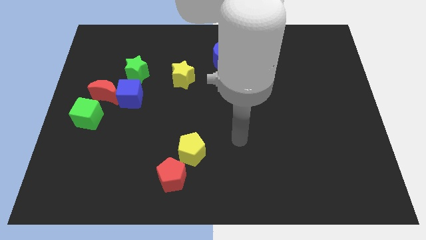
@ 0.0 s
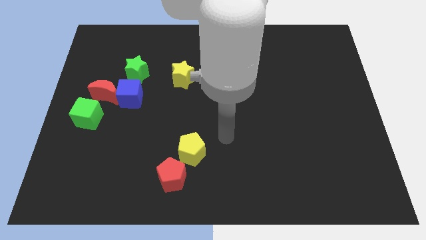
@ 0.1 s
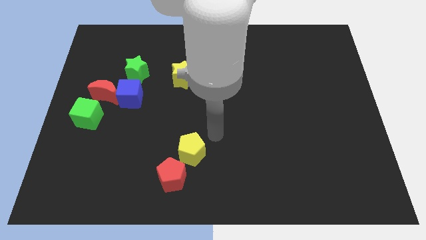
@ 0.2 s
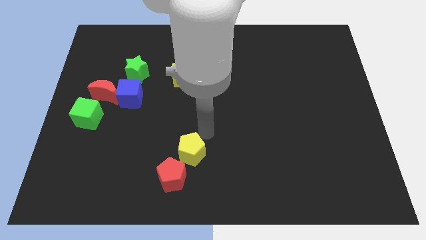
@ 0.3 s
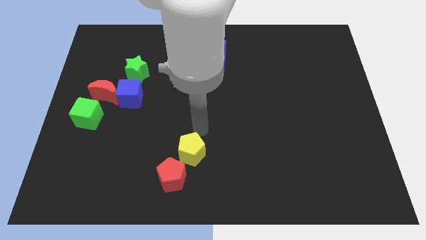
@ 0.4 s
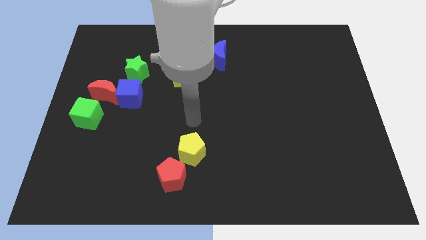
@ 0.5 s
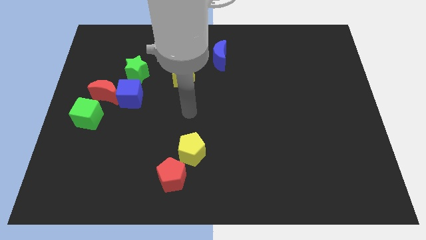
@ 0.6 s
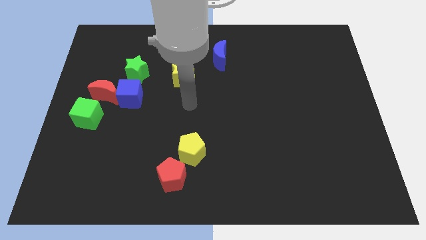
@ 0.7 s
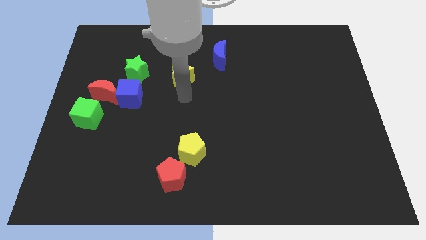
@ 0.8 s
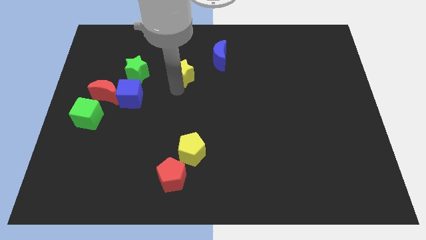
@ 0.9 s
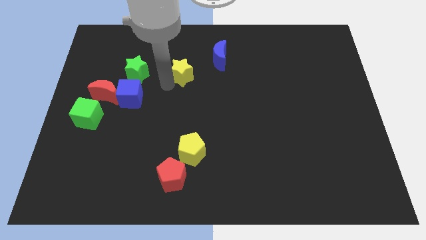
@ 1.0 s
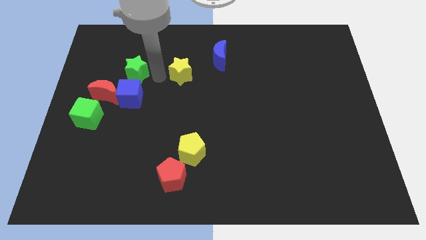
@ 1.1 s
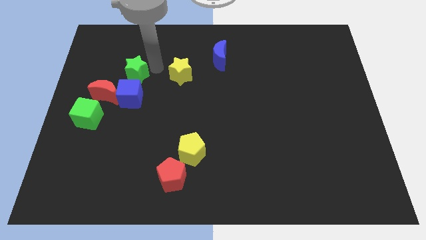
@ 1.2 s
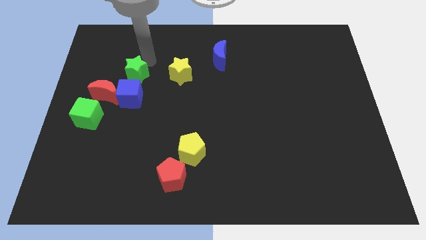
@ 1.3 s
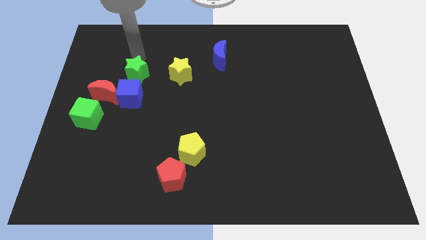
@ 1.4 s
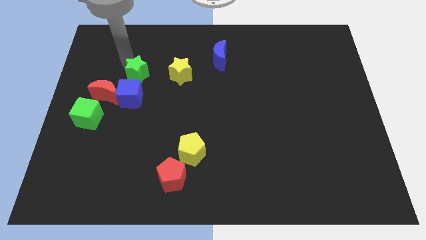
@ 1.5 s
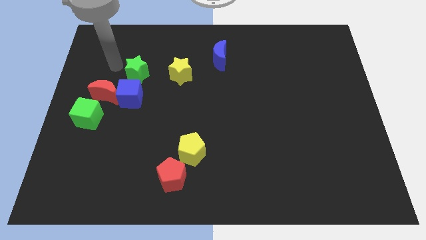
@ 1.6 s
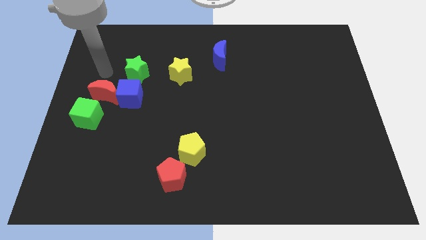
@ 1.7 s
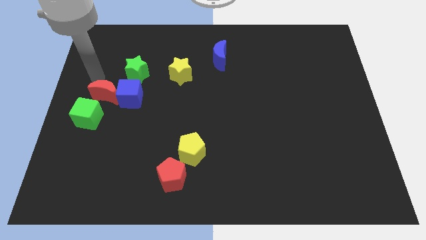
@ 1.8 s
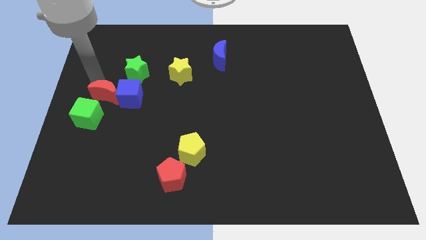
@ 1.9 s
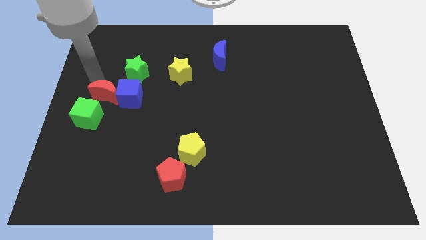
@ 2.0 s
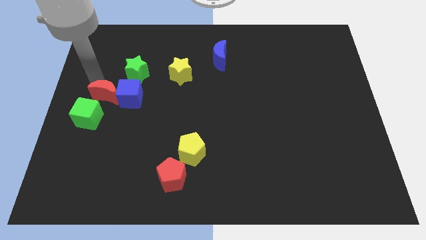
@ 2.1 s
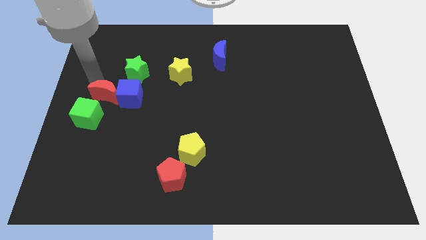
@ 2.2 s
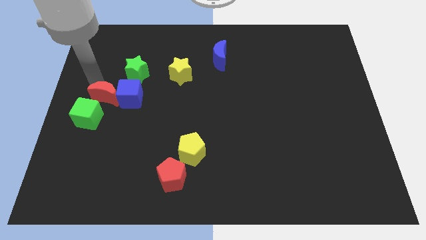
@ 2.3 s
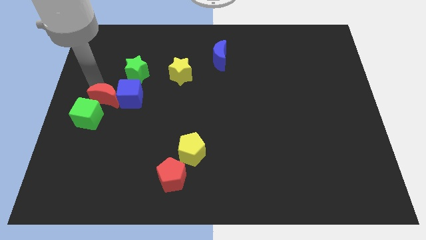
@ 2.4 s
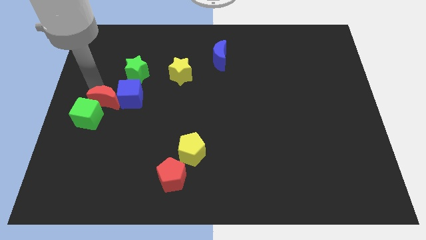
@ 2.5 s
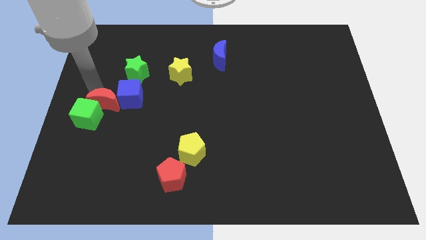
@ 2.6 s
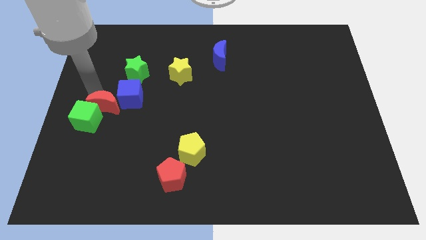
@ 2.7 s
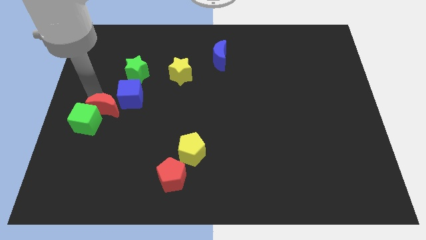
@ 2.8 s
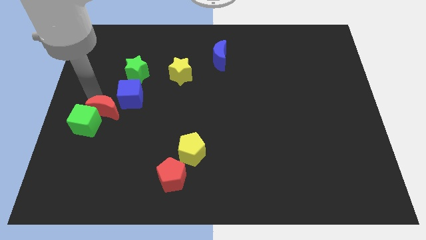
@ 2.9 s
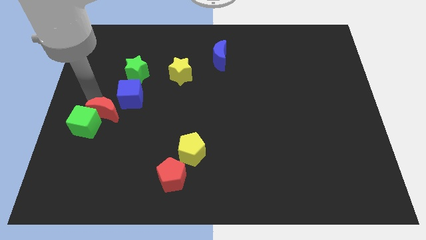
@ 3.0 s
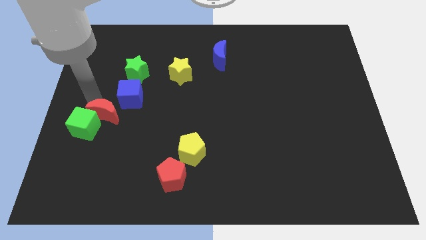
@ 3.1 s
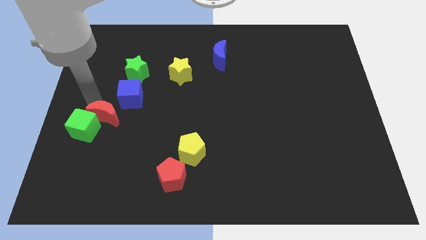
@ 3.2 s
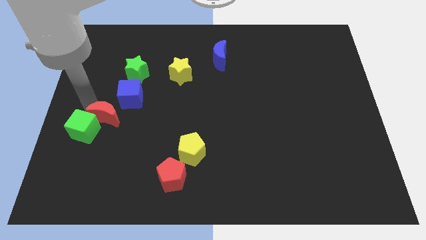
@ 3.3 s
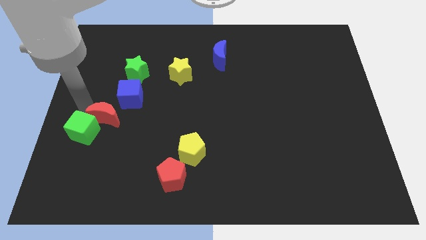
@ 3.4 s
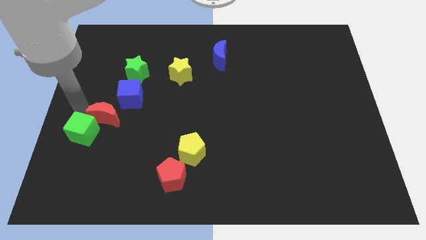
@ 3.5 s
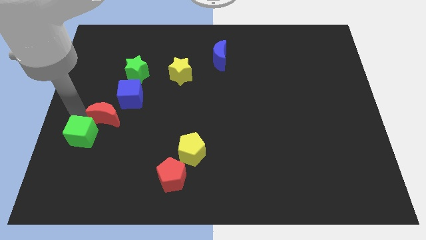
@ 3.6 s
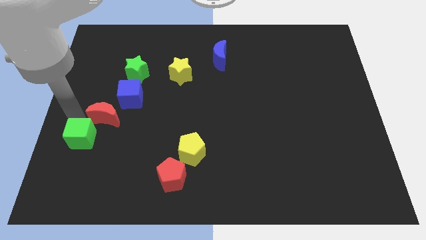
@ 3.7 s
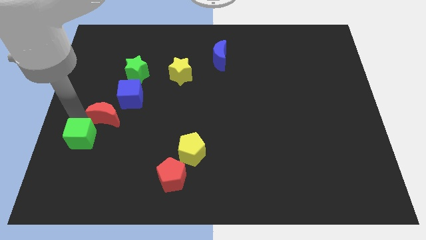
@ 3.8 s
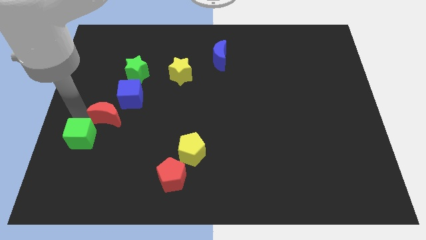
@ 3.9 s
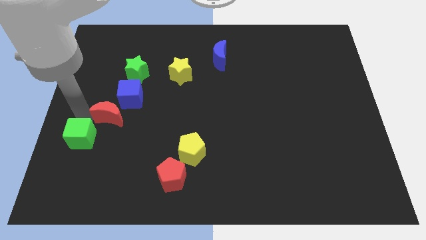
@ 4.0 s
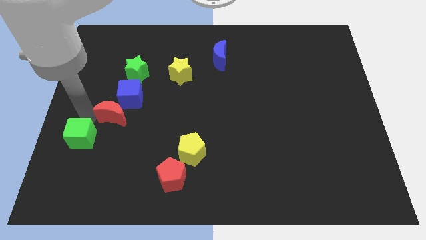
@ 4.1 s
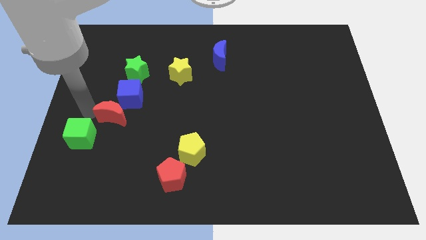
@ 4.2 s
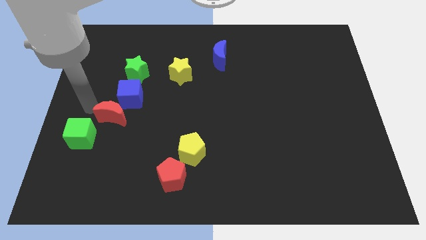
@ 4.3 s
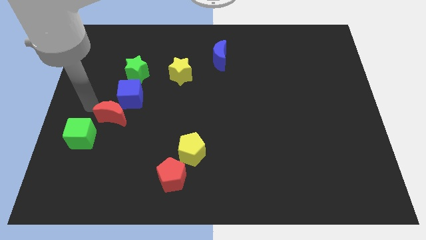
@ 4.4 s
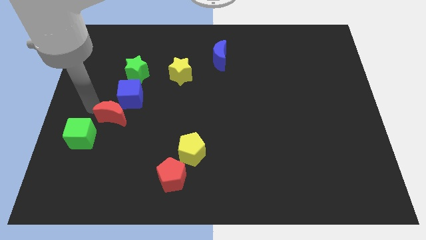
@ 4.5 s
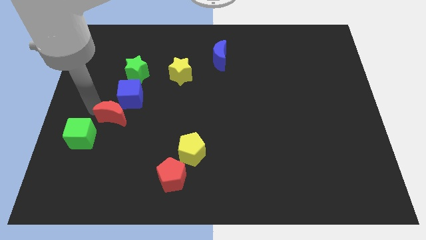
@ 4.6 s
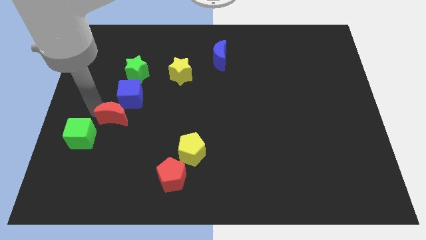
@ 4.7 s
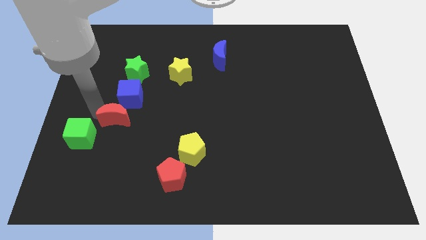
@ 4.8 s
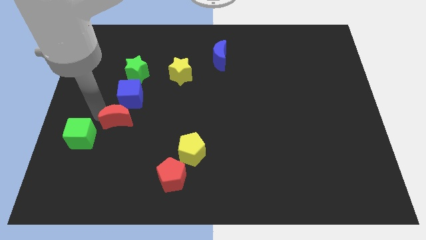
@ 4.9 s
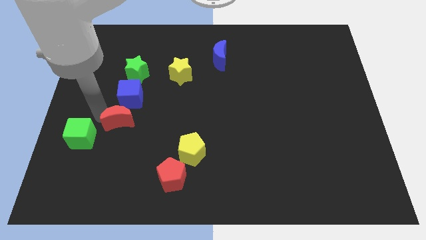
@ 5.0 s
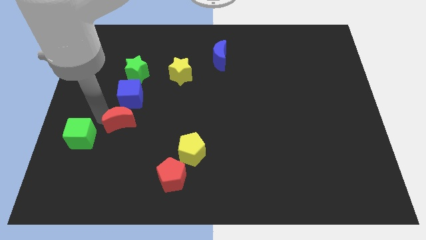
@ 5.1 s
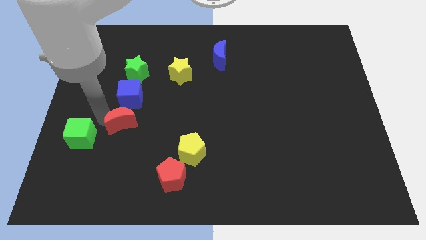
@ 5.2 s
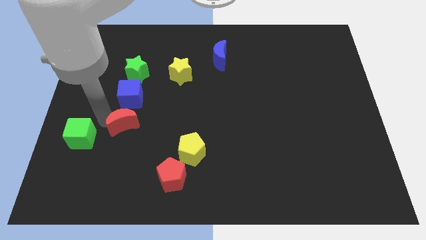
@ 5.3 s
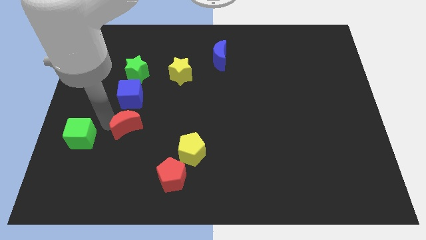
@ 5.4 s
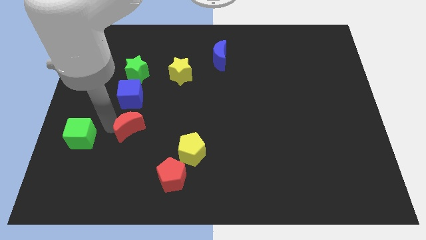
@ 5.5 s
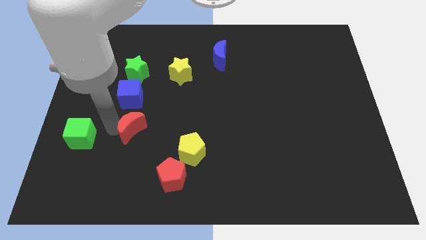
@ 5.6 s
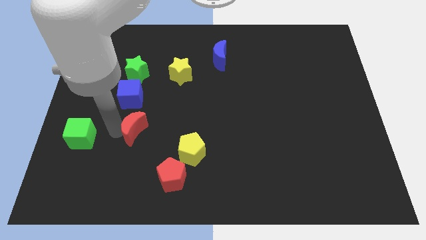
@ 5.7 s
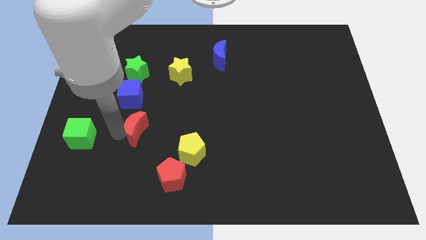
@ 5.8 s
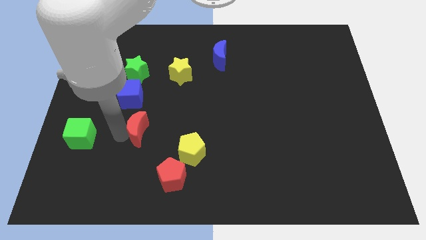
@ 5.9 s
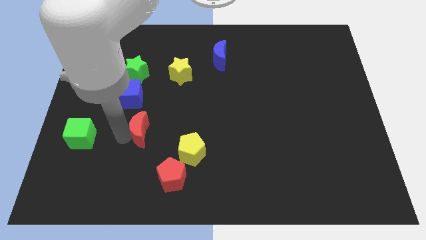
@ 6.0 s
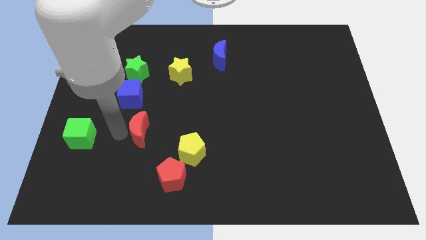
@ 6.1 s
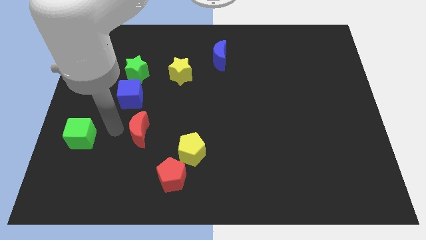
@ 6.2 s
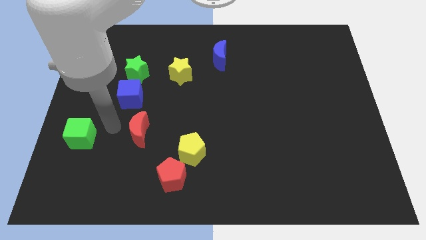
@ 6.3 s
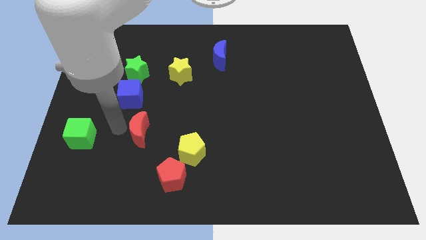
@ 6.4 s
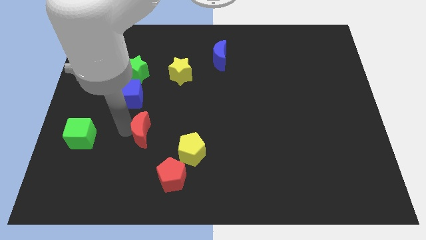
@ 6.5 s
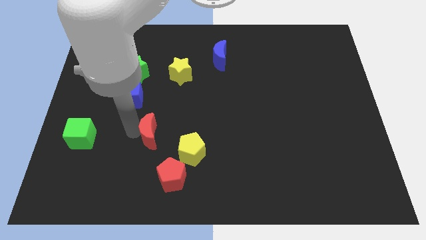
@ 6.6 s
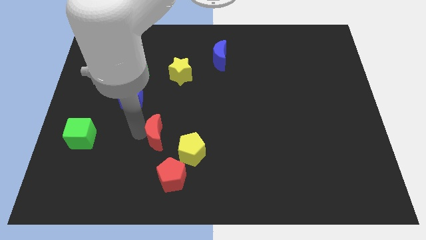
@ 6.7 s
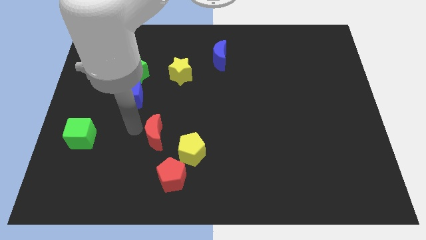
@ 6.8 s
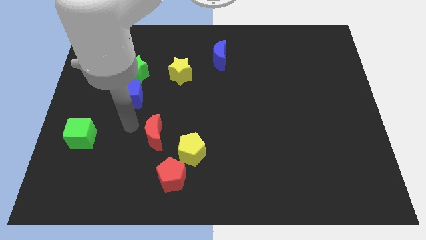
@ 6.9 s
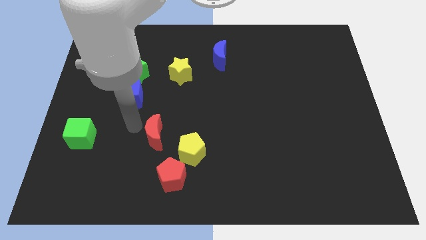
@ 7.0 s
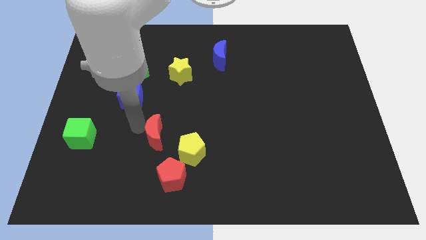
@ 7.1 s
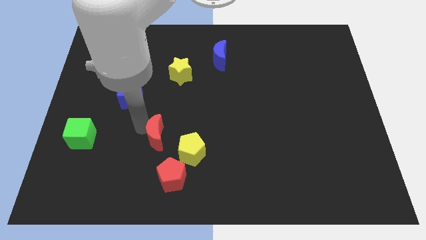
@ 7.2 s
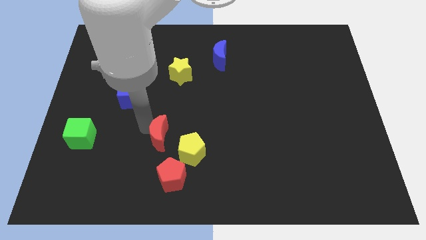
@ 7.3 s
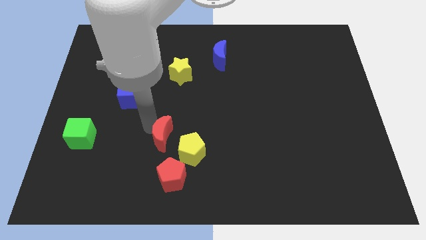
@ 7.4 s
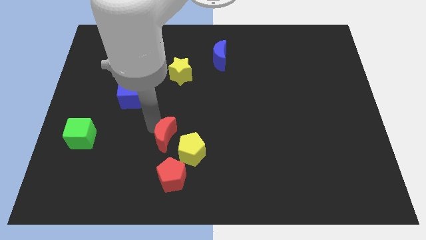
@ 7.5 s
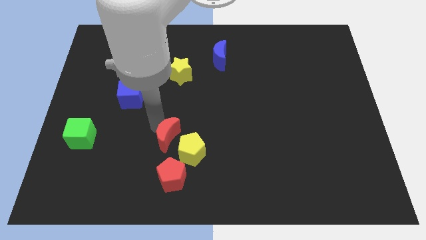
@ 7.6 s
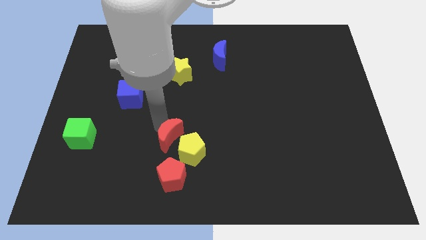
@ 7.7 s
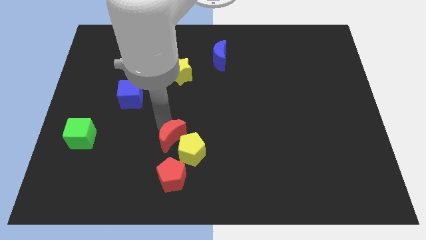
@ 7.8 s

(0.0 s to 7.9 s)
push the red moon to the yellow pentagon
